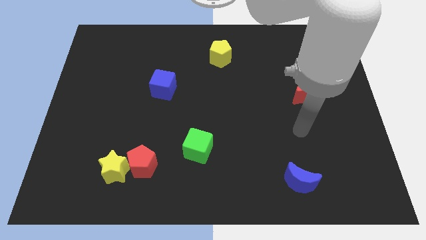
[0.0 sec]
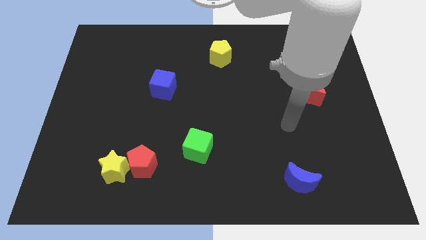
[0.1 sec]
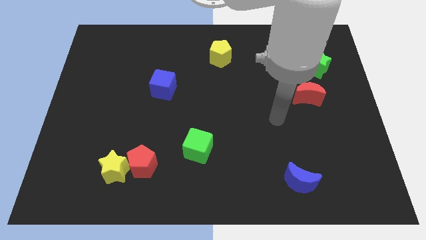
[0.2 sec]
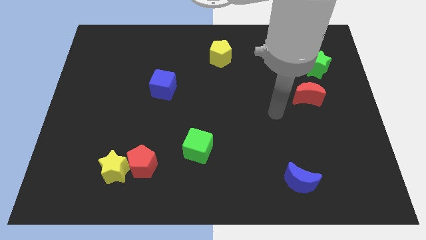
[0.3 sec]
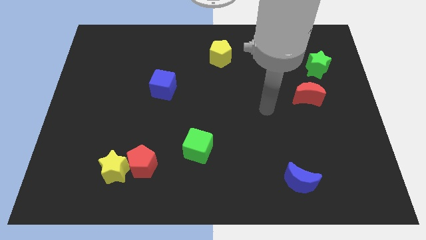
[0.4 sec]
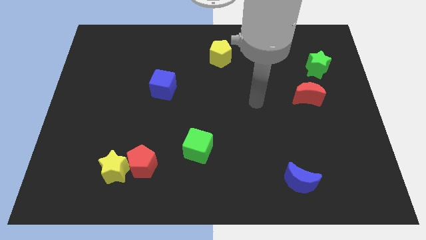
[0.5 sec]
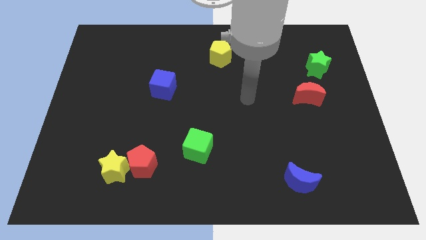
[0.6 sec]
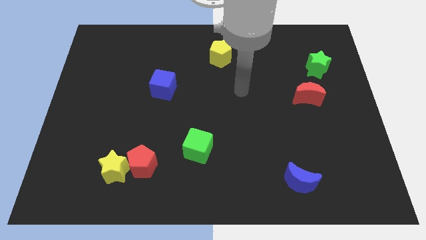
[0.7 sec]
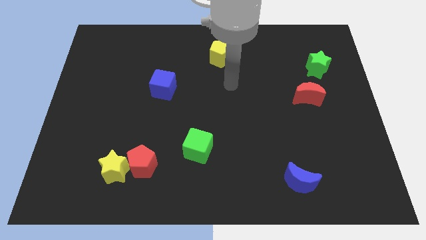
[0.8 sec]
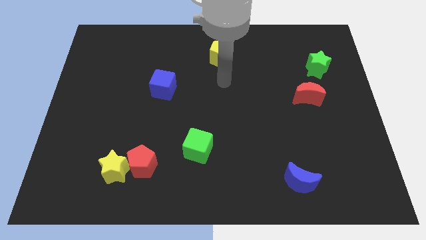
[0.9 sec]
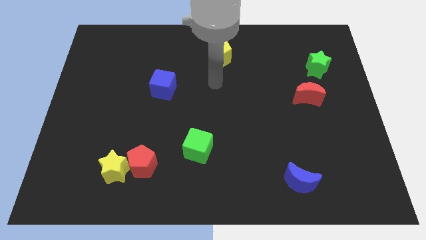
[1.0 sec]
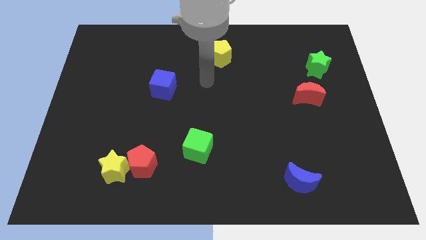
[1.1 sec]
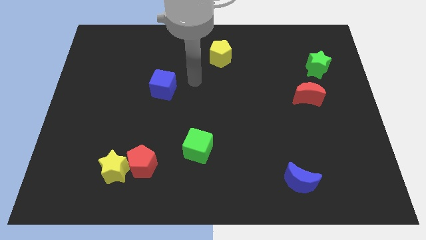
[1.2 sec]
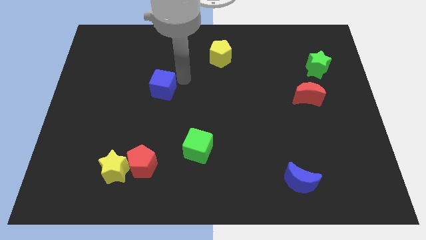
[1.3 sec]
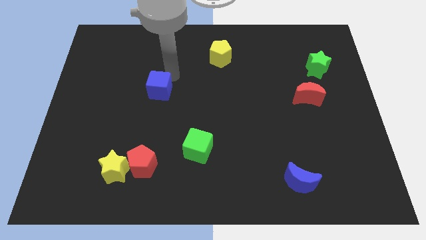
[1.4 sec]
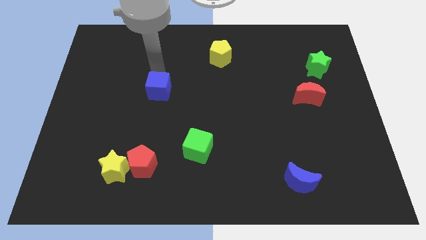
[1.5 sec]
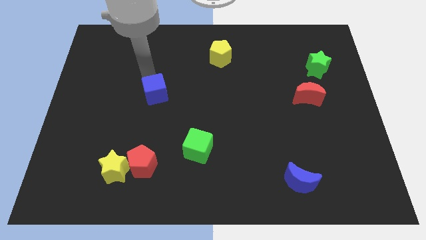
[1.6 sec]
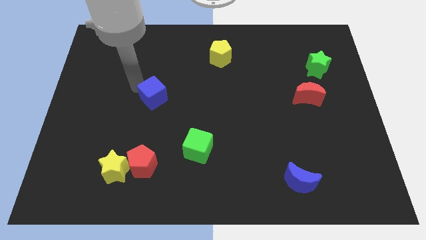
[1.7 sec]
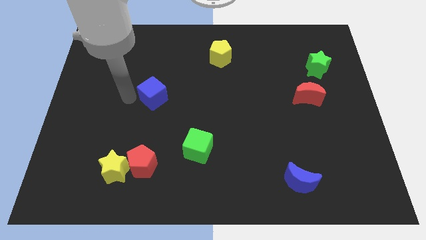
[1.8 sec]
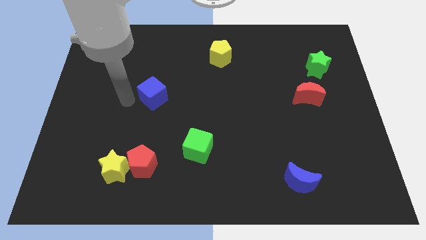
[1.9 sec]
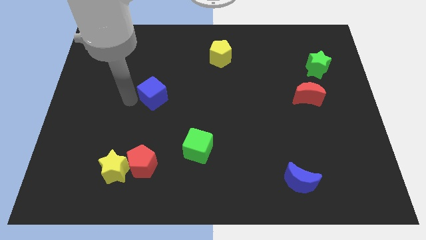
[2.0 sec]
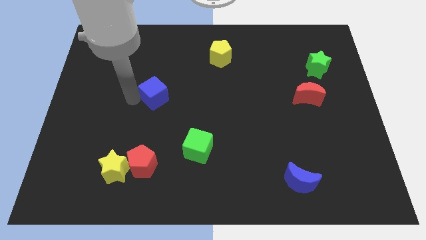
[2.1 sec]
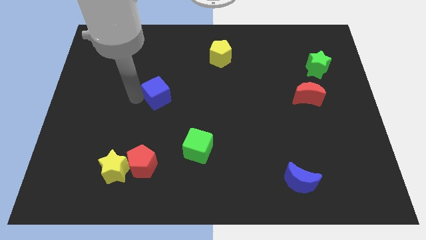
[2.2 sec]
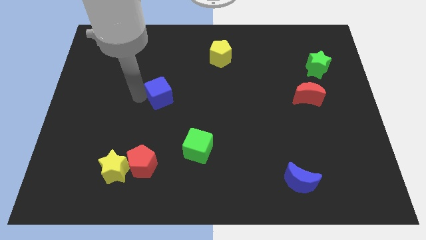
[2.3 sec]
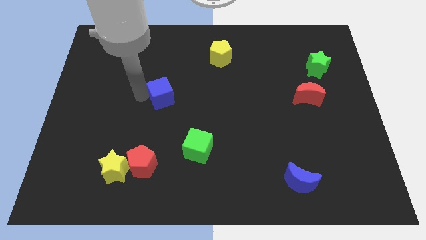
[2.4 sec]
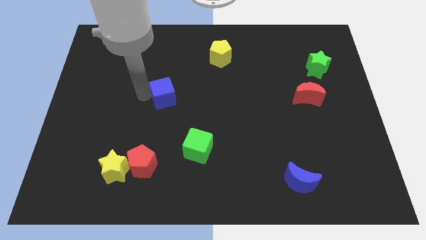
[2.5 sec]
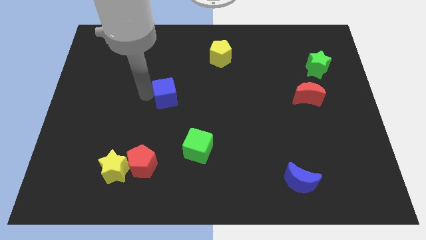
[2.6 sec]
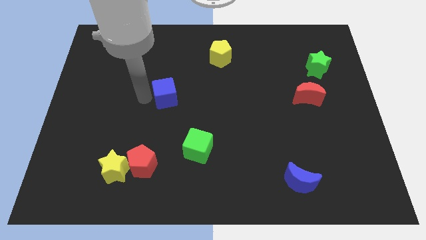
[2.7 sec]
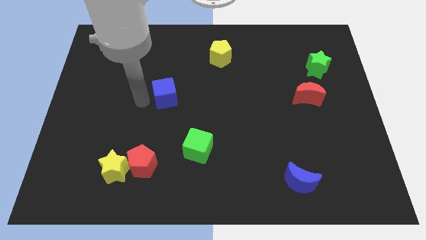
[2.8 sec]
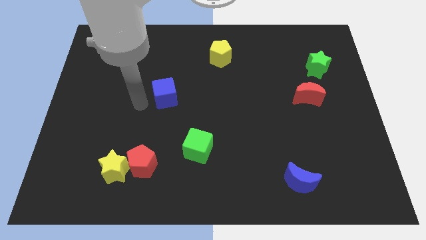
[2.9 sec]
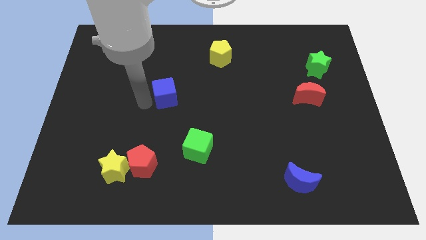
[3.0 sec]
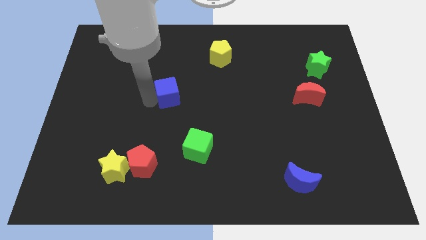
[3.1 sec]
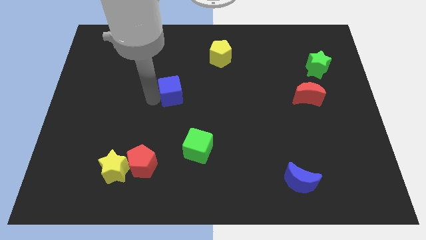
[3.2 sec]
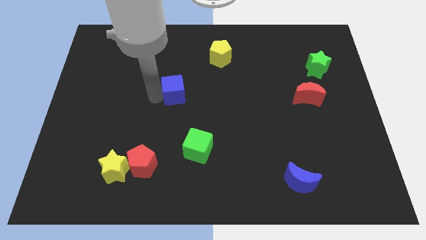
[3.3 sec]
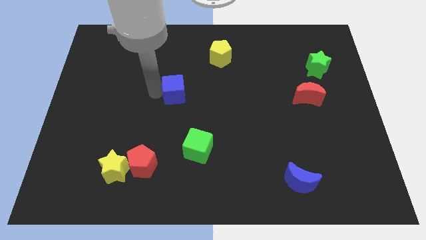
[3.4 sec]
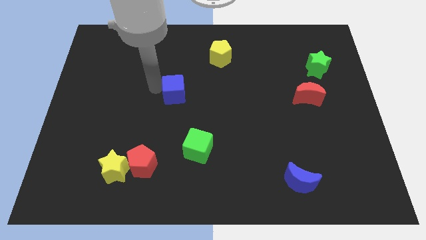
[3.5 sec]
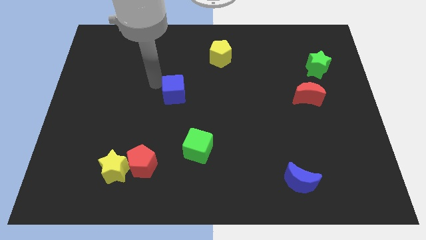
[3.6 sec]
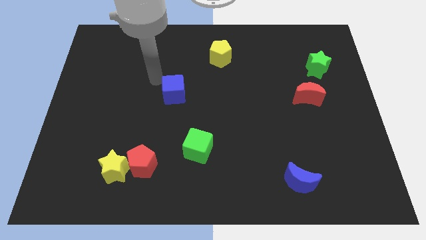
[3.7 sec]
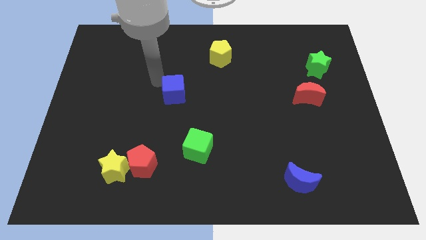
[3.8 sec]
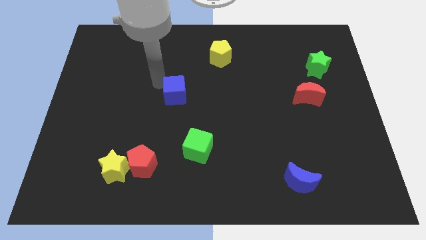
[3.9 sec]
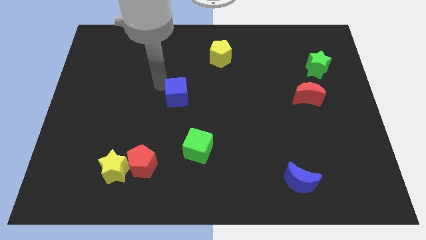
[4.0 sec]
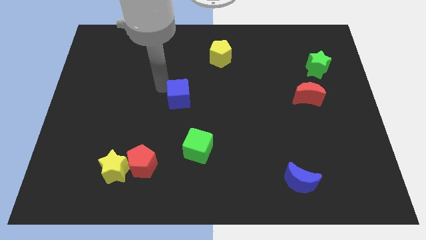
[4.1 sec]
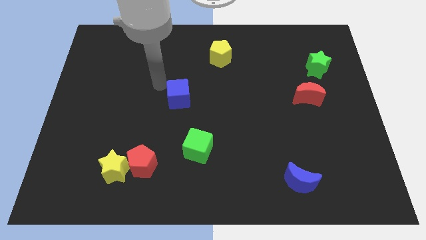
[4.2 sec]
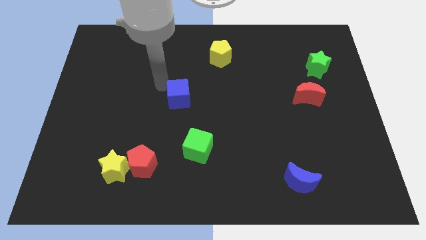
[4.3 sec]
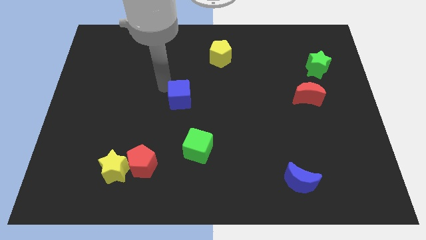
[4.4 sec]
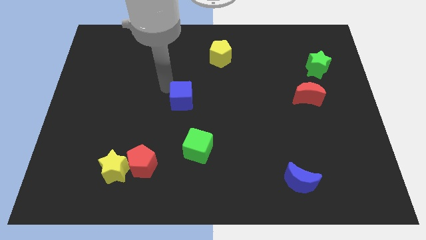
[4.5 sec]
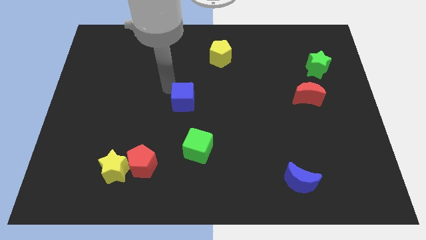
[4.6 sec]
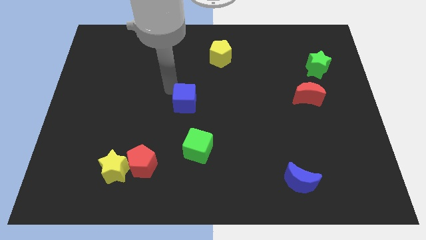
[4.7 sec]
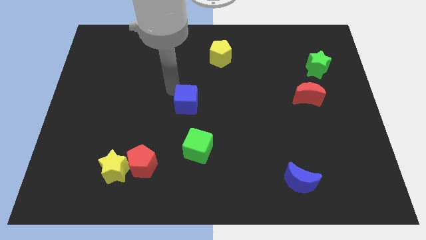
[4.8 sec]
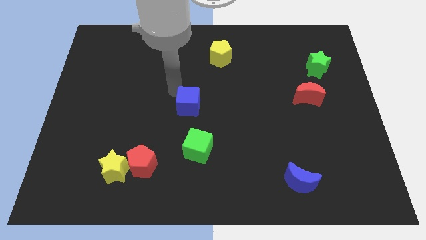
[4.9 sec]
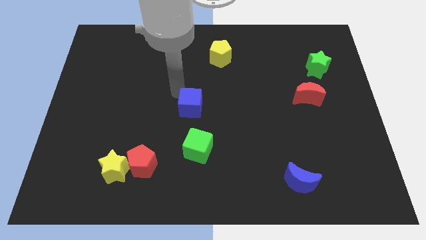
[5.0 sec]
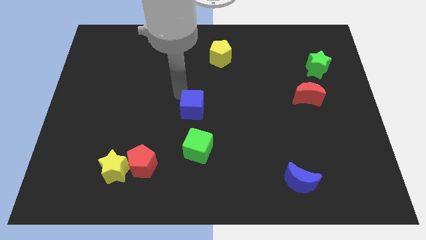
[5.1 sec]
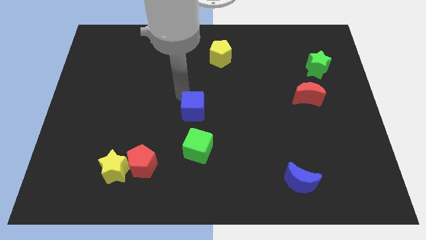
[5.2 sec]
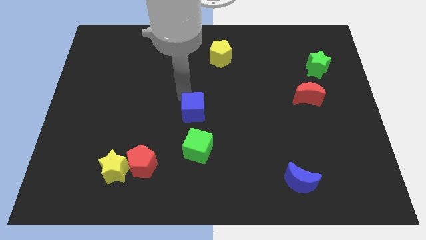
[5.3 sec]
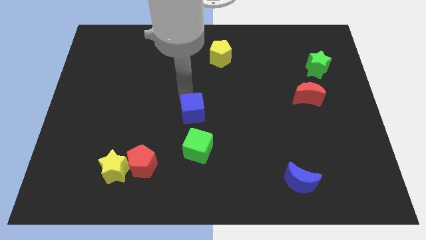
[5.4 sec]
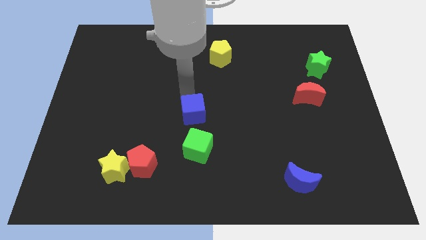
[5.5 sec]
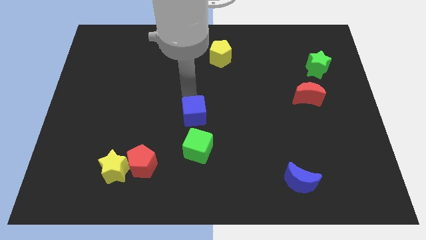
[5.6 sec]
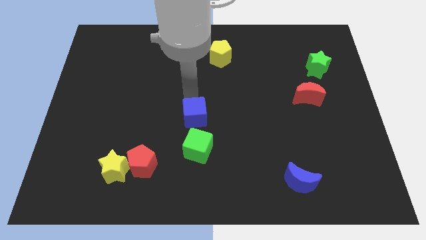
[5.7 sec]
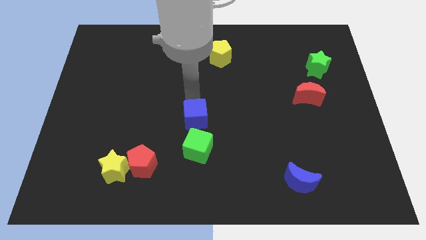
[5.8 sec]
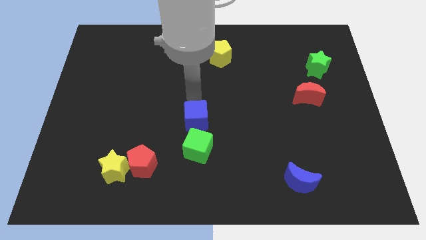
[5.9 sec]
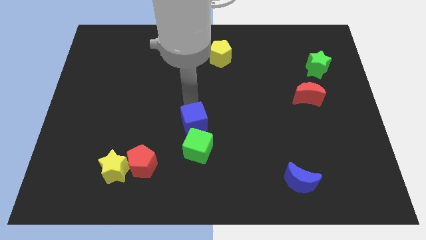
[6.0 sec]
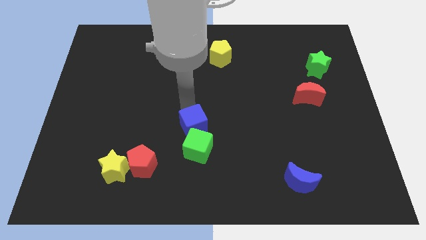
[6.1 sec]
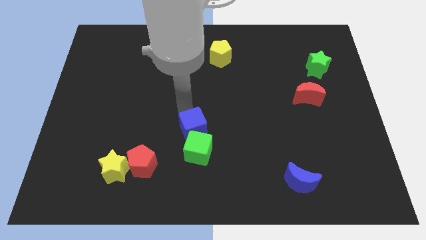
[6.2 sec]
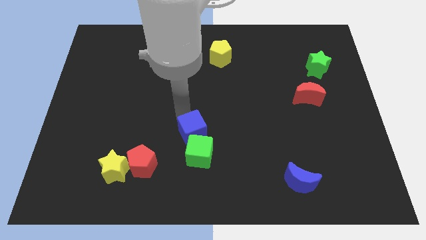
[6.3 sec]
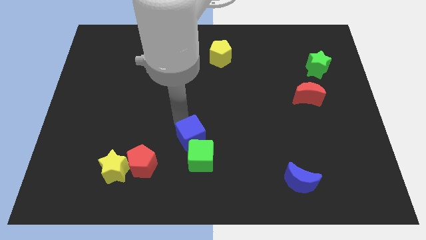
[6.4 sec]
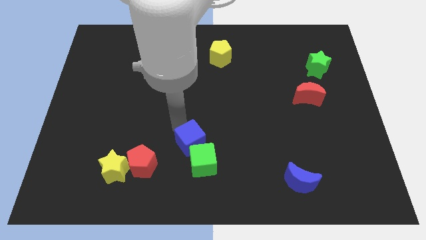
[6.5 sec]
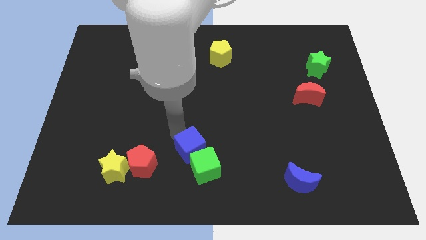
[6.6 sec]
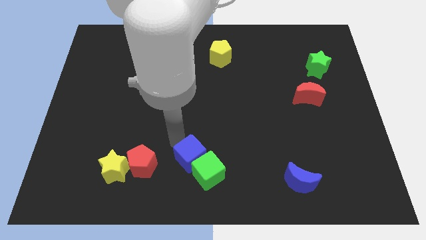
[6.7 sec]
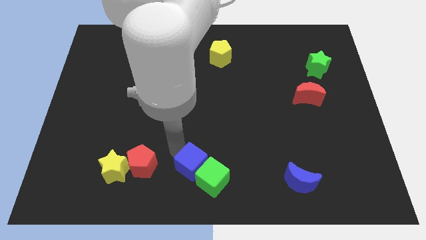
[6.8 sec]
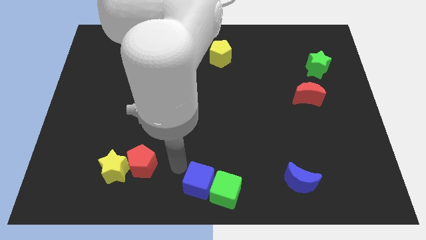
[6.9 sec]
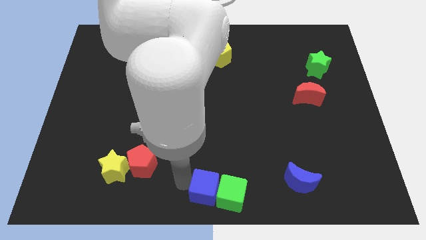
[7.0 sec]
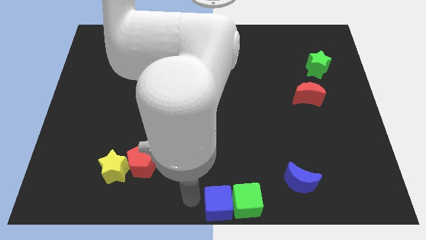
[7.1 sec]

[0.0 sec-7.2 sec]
push the blue cube downwards and then to the right

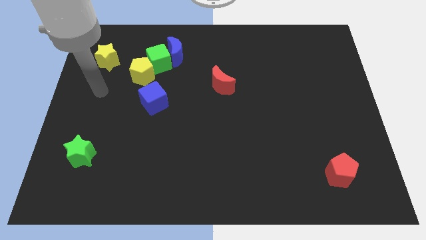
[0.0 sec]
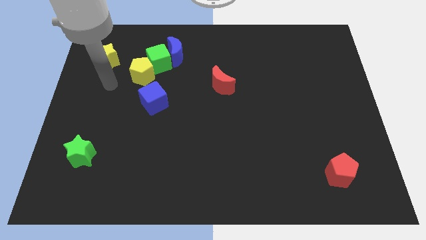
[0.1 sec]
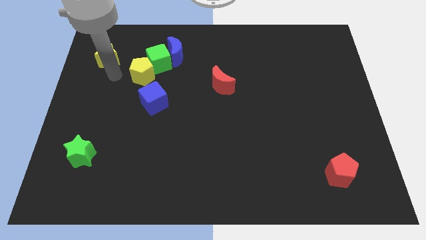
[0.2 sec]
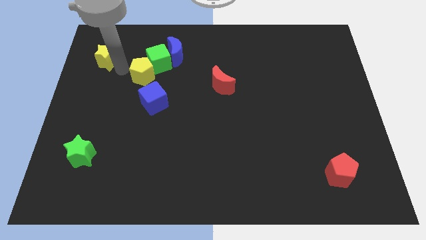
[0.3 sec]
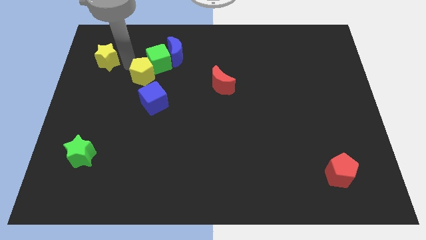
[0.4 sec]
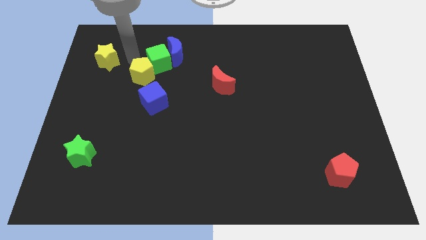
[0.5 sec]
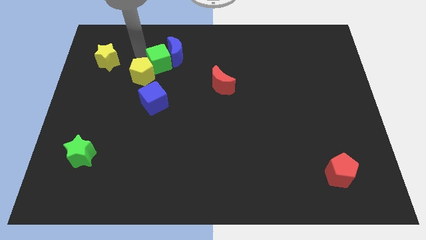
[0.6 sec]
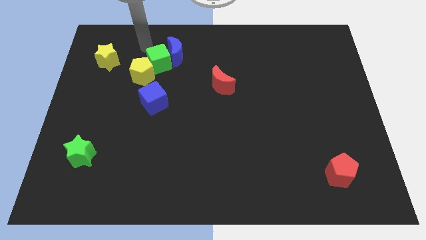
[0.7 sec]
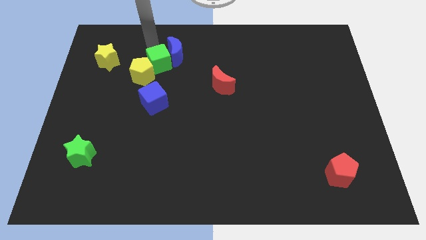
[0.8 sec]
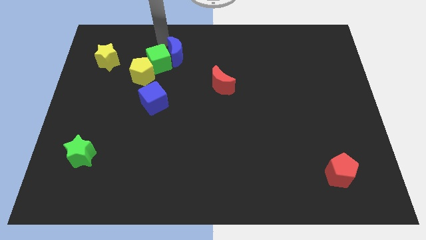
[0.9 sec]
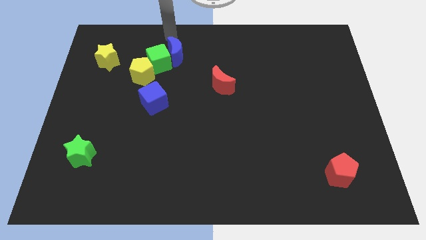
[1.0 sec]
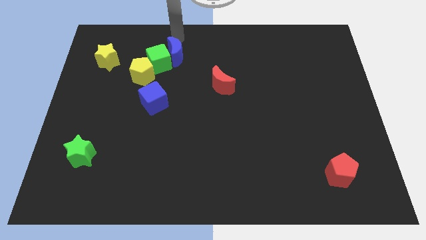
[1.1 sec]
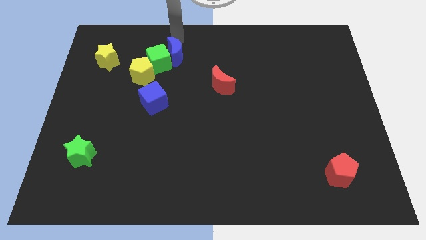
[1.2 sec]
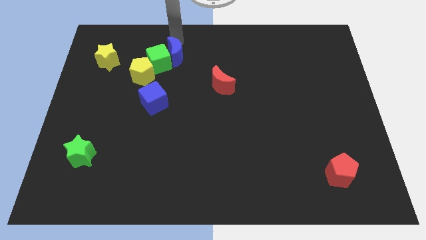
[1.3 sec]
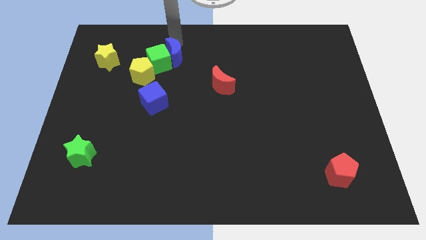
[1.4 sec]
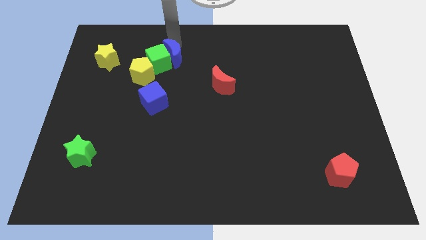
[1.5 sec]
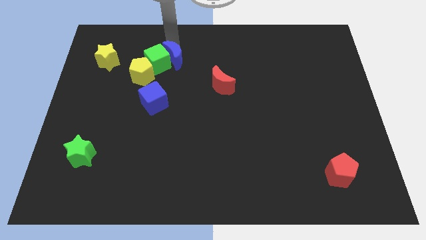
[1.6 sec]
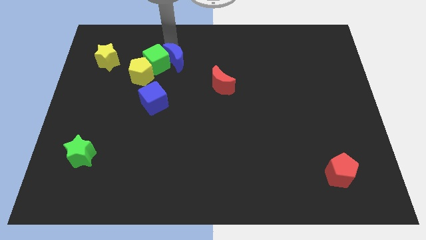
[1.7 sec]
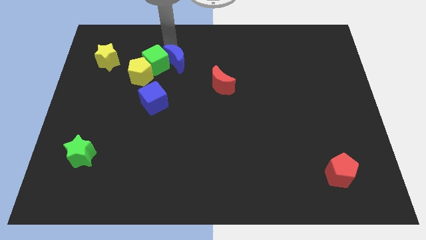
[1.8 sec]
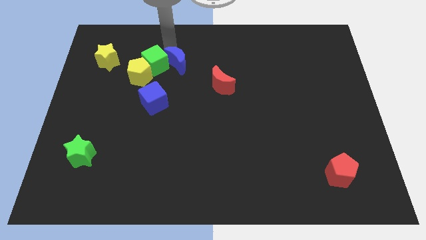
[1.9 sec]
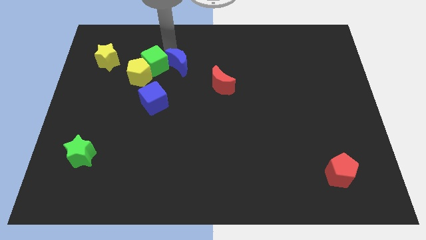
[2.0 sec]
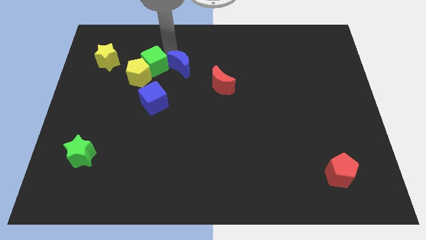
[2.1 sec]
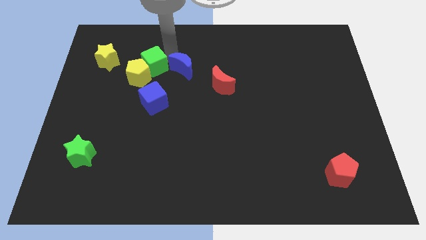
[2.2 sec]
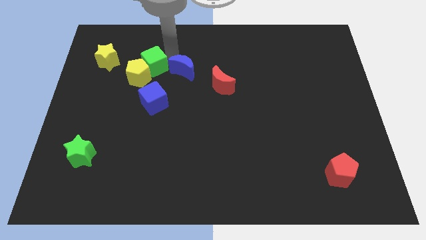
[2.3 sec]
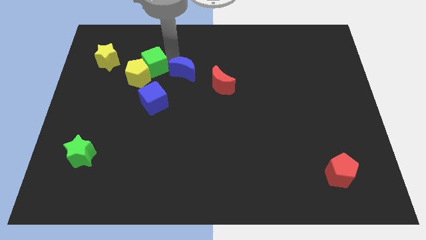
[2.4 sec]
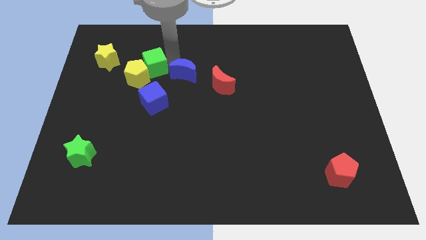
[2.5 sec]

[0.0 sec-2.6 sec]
push the blue moon a bit down
